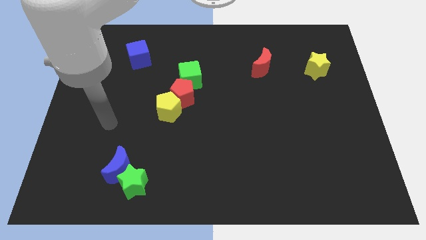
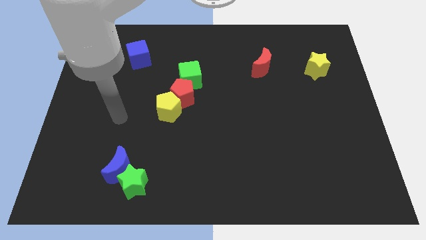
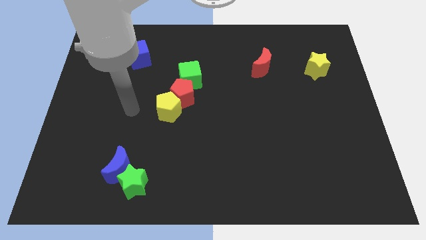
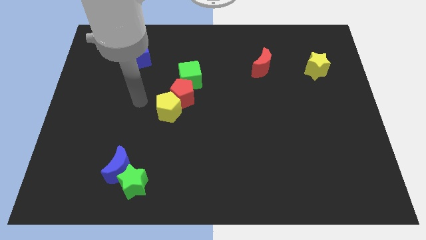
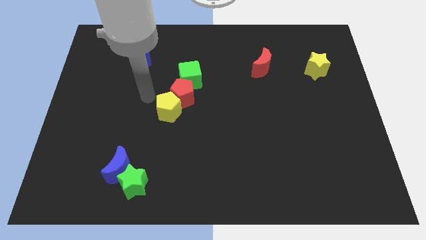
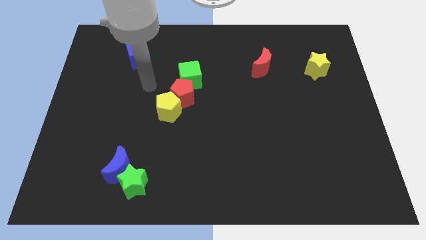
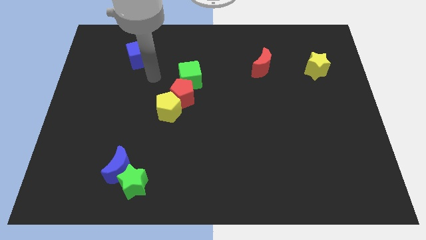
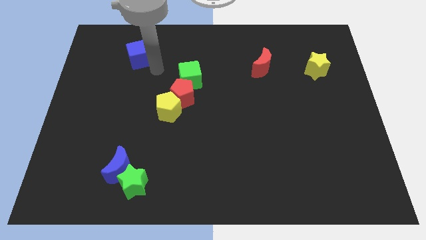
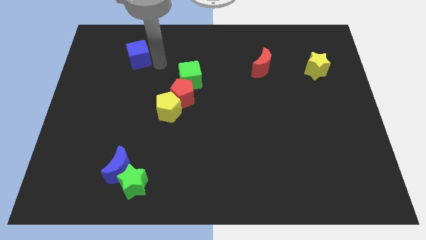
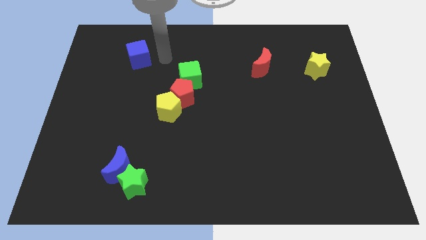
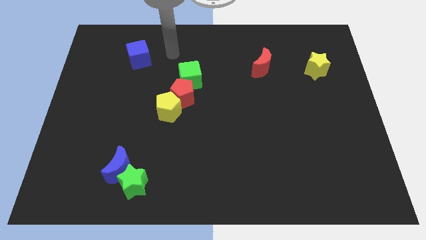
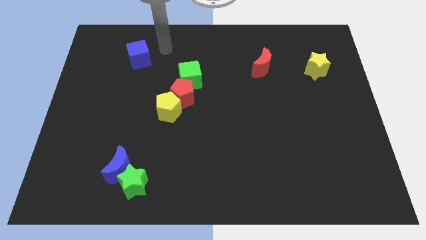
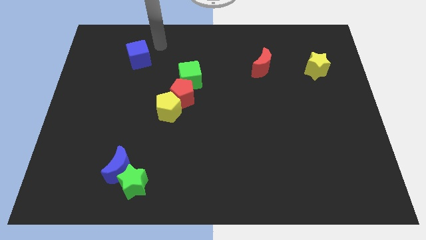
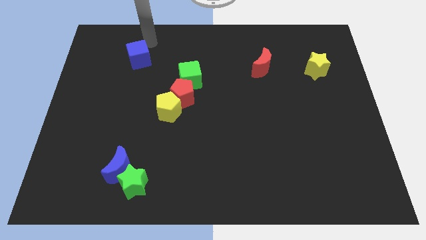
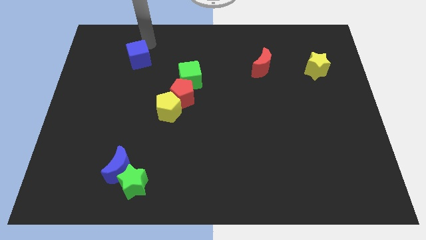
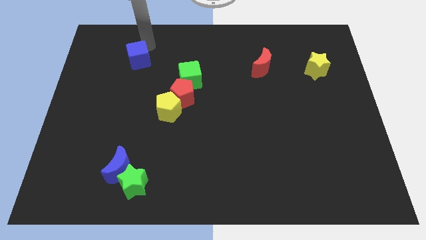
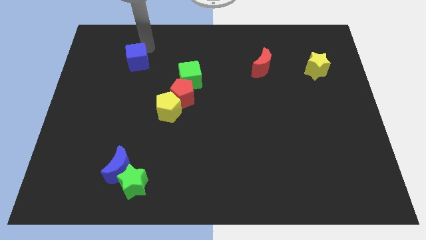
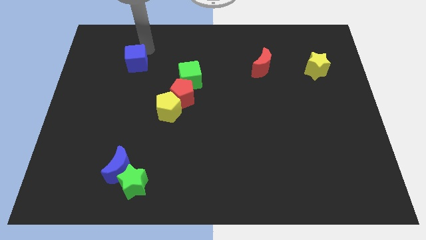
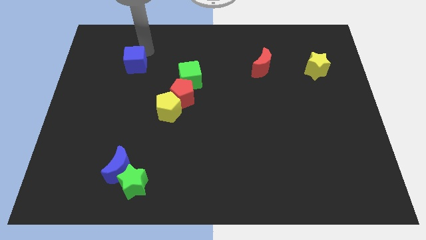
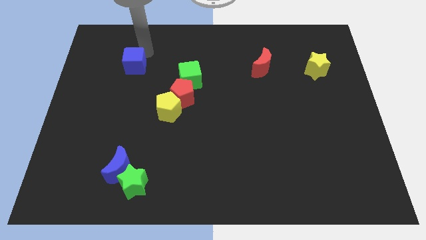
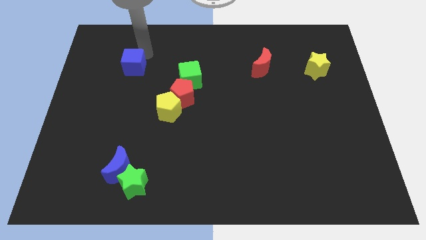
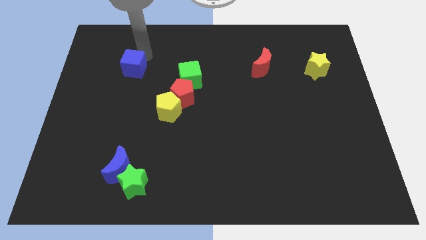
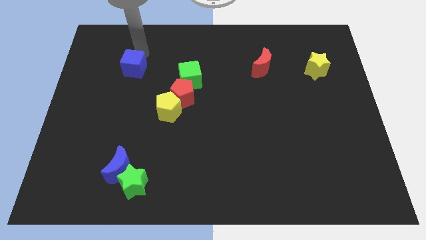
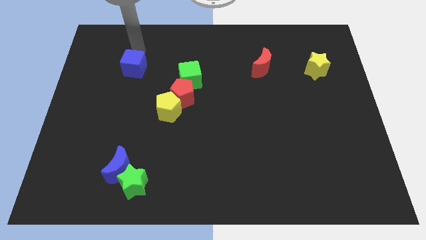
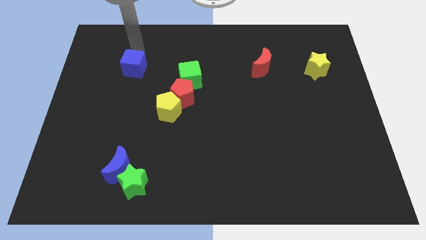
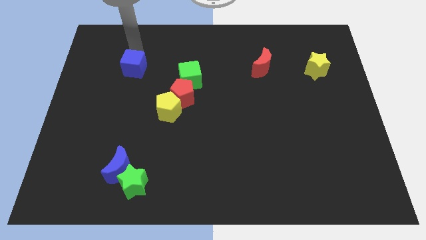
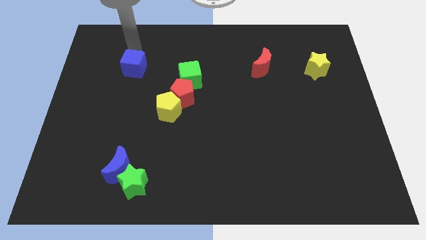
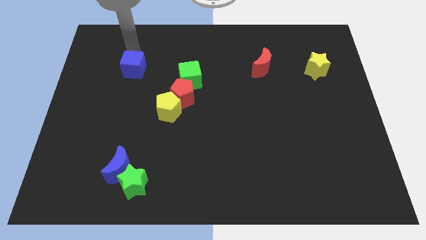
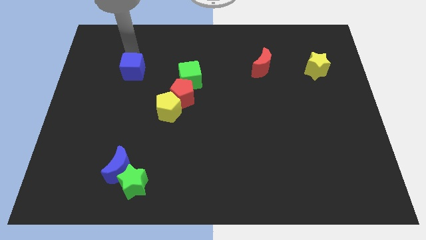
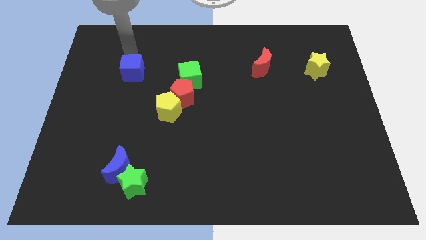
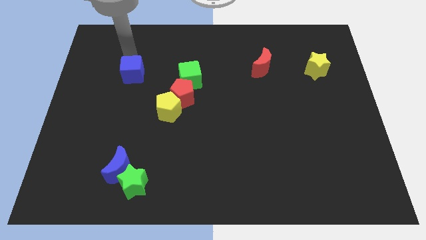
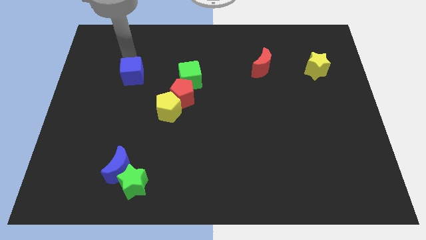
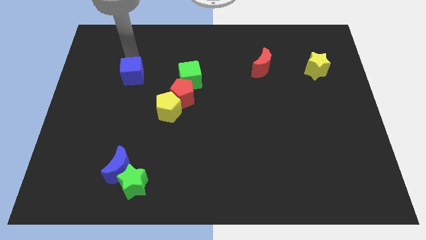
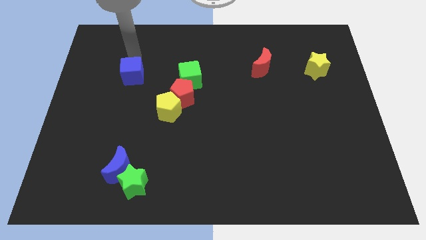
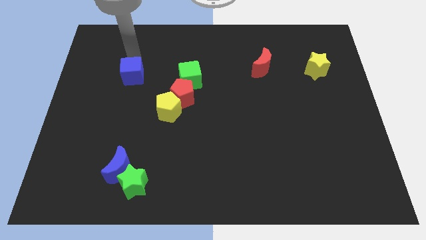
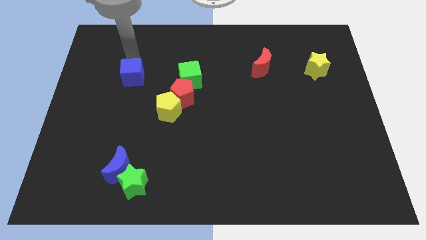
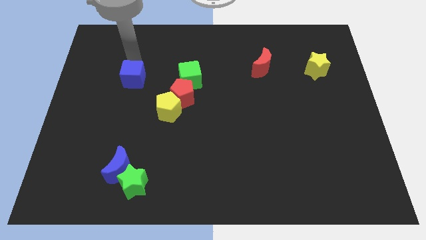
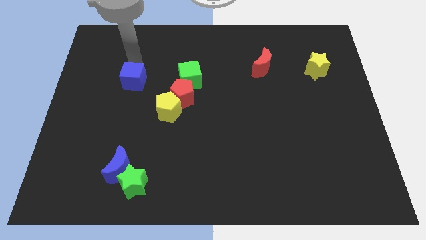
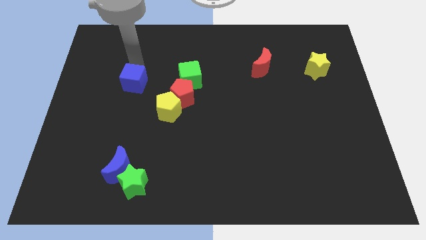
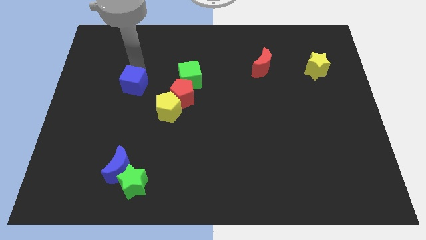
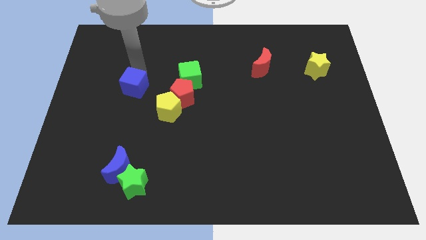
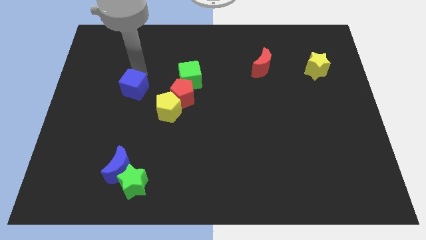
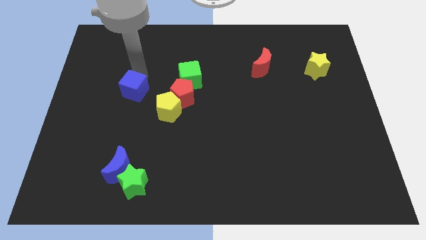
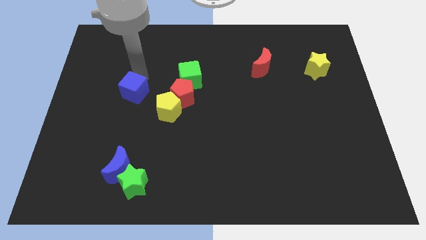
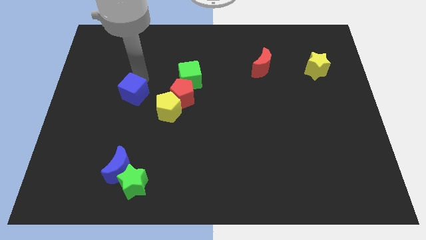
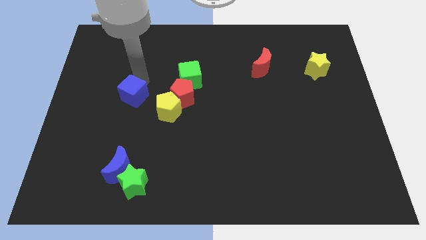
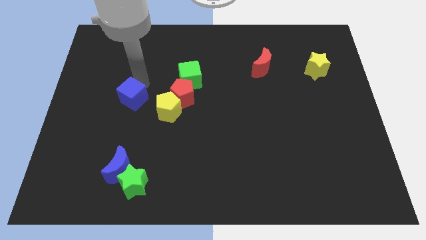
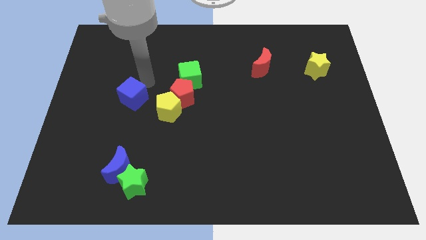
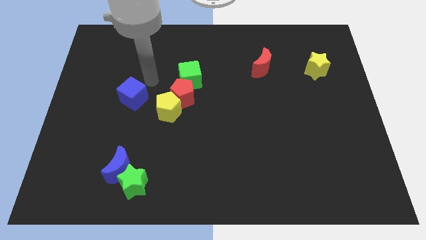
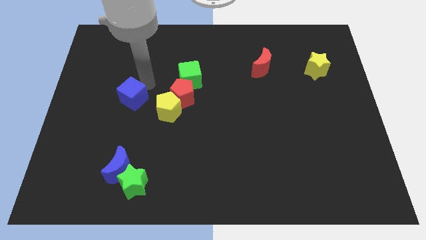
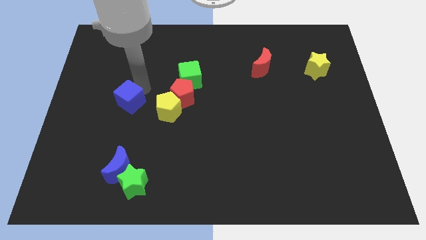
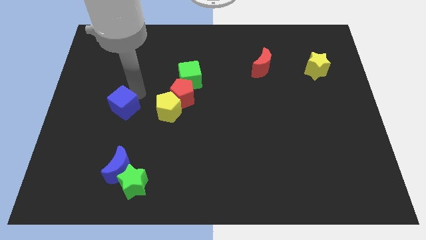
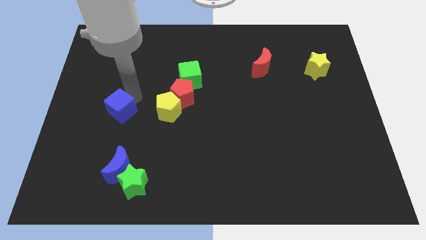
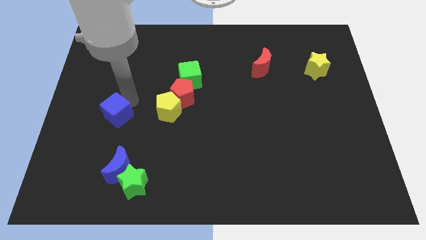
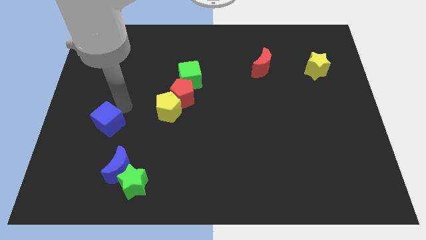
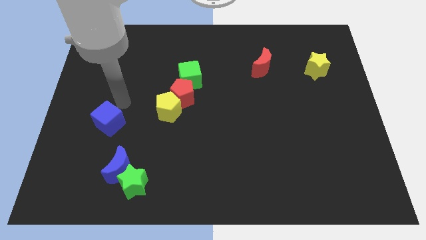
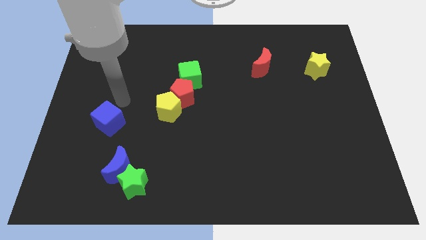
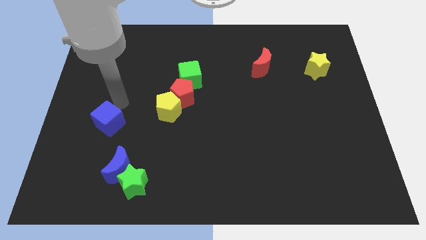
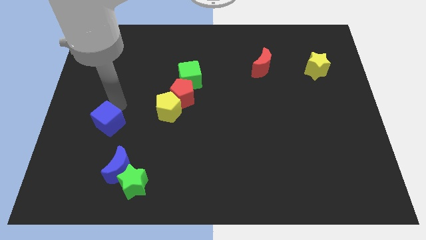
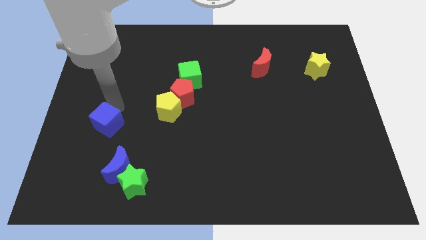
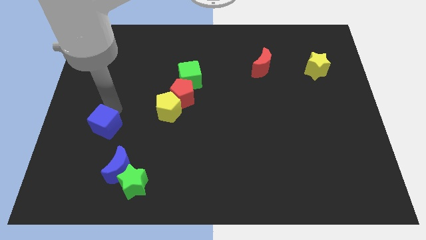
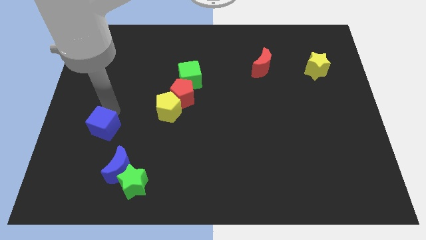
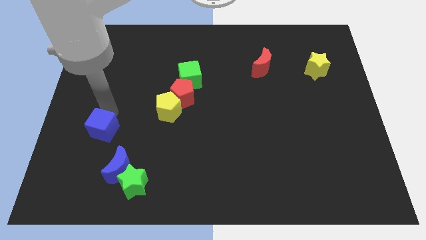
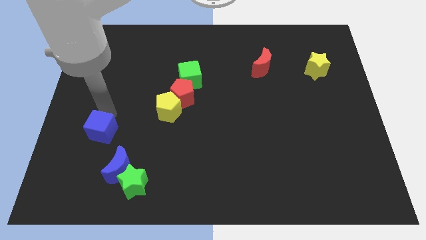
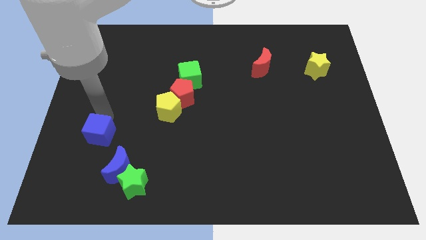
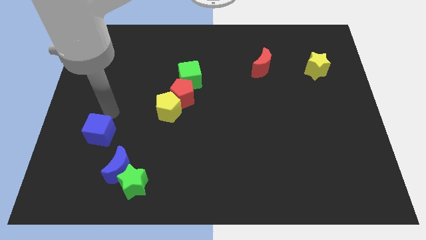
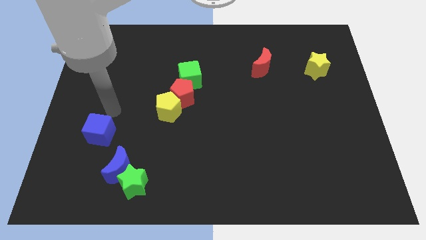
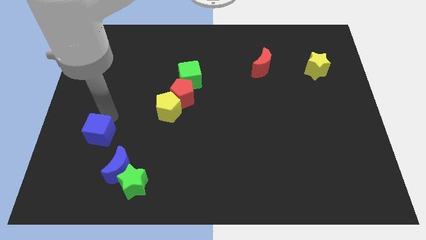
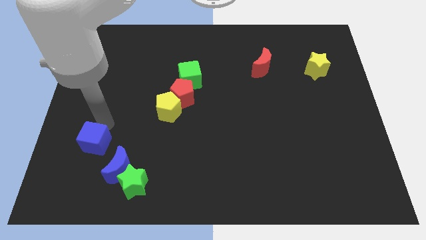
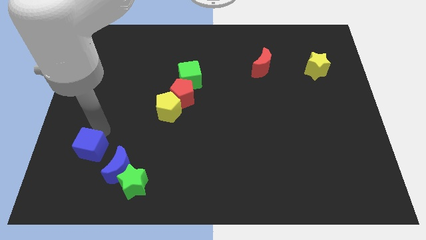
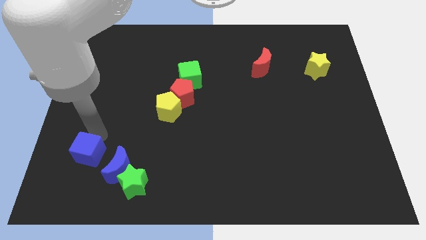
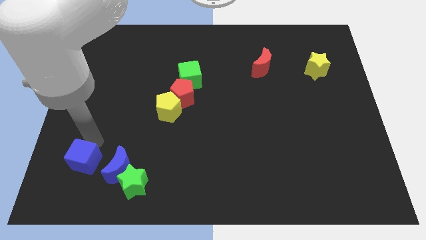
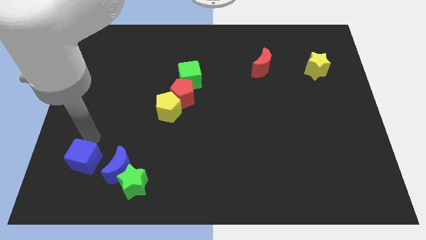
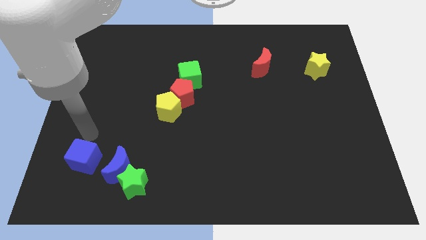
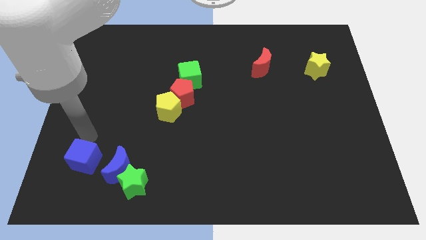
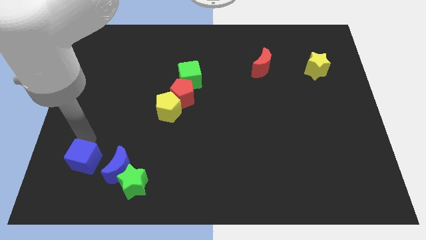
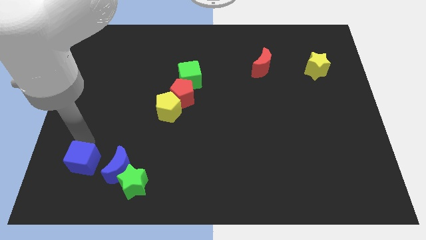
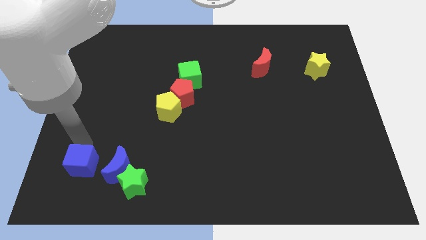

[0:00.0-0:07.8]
move the blue cube just left of the green star
